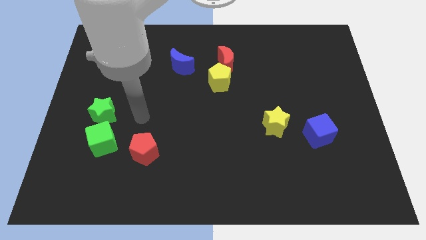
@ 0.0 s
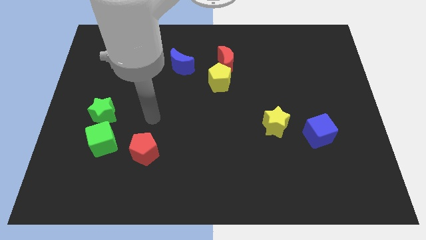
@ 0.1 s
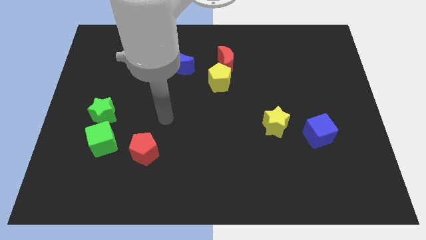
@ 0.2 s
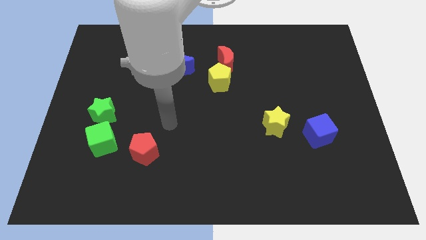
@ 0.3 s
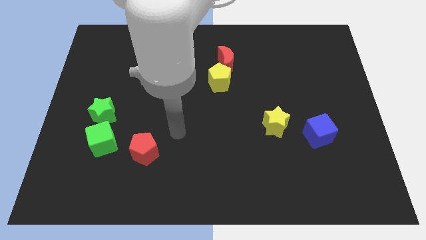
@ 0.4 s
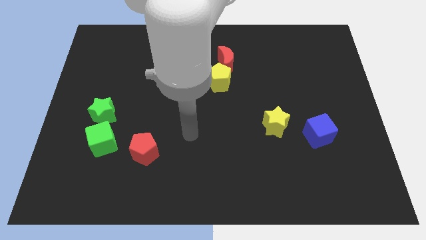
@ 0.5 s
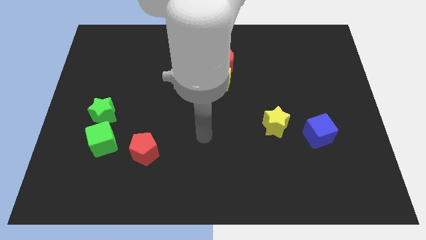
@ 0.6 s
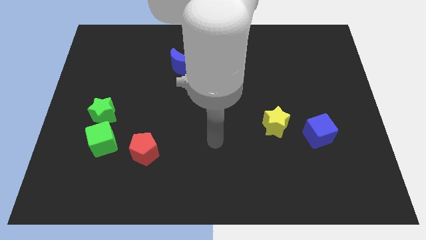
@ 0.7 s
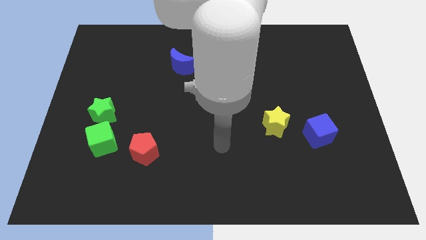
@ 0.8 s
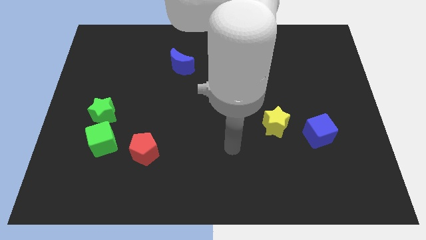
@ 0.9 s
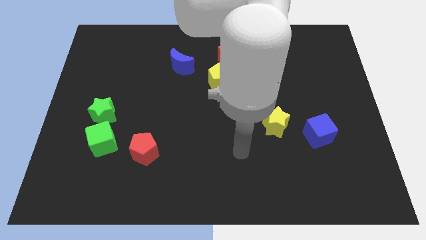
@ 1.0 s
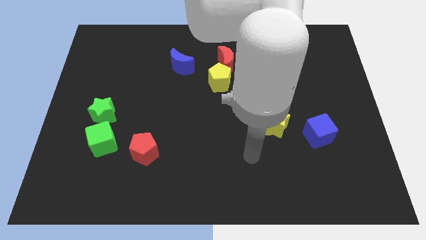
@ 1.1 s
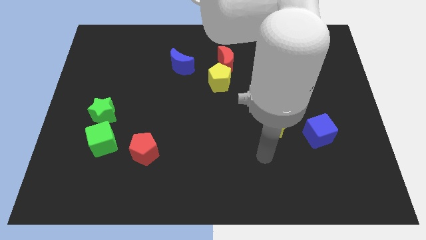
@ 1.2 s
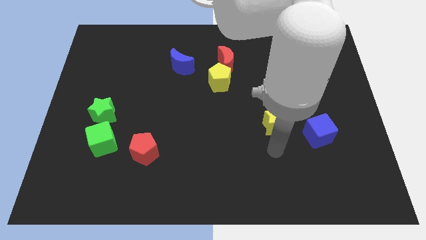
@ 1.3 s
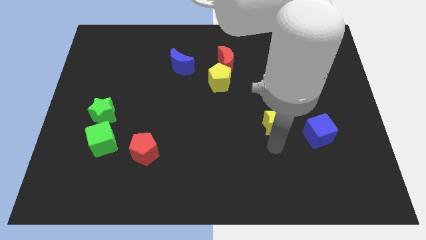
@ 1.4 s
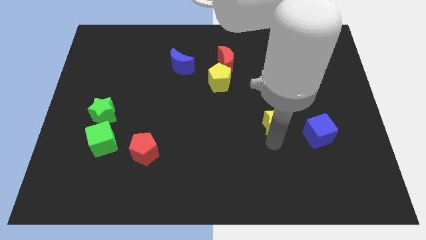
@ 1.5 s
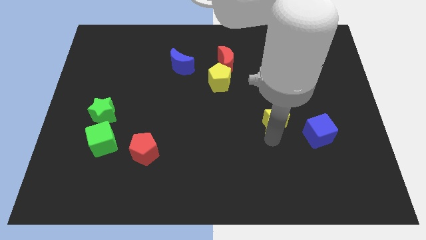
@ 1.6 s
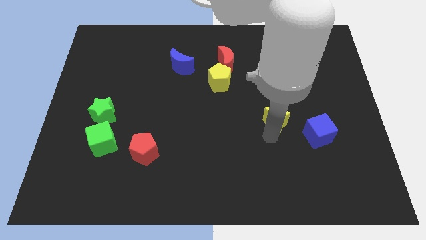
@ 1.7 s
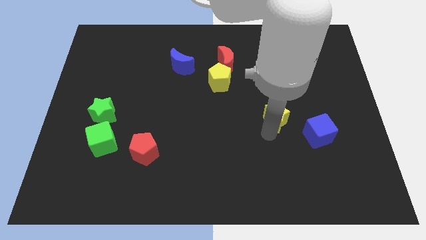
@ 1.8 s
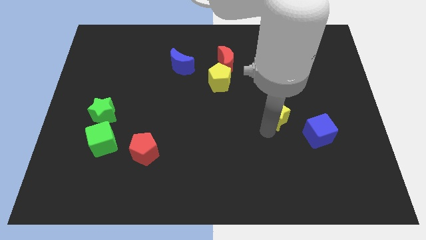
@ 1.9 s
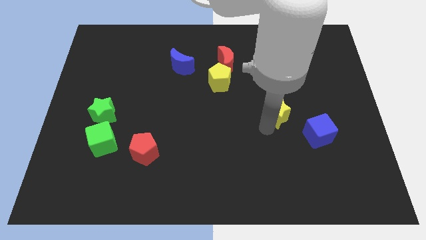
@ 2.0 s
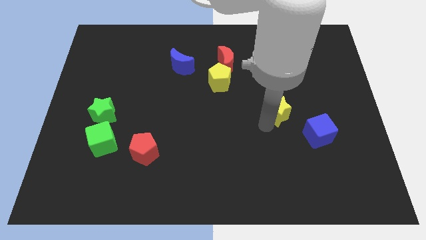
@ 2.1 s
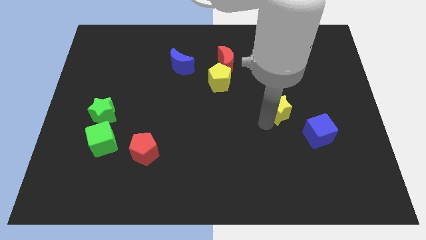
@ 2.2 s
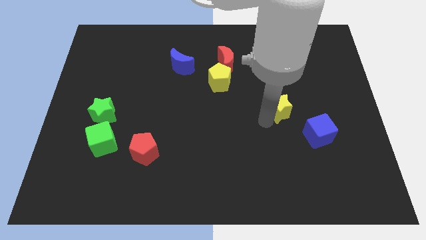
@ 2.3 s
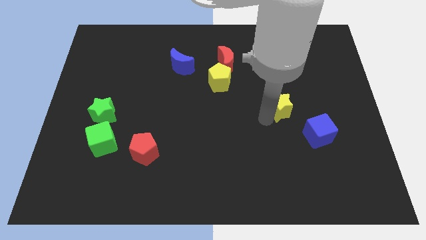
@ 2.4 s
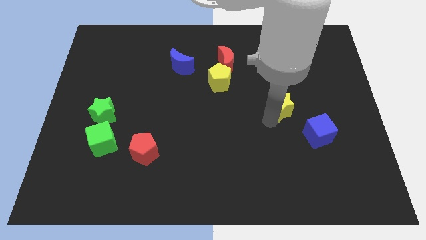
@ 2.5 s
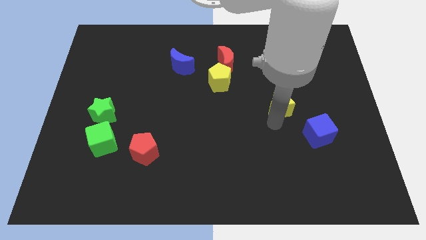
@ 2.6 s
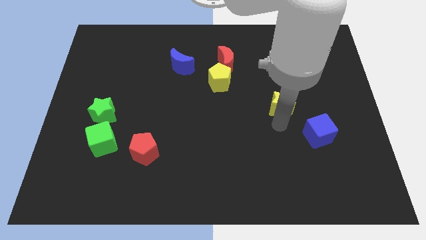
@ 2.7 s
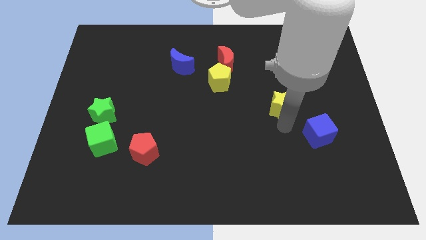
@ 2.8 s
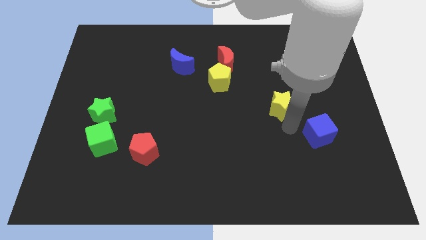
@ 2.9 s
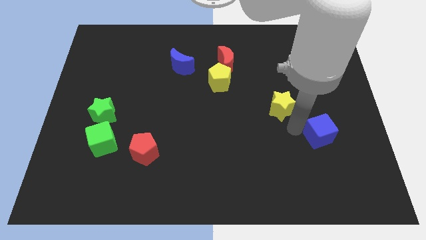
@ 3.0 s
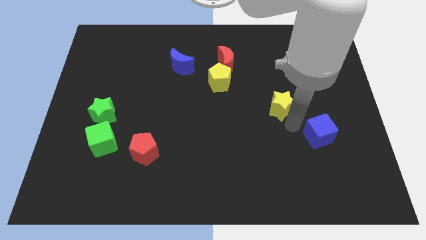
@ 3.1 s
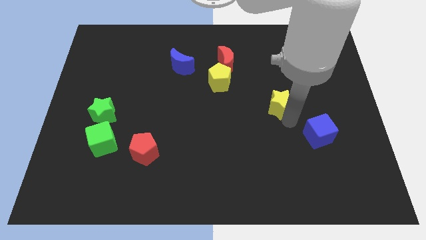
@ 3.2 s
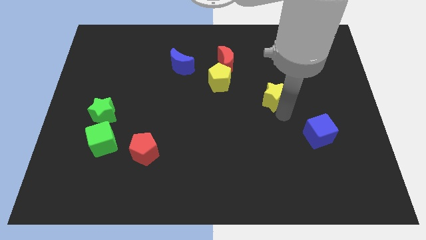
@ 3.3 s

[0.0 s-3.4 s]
slide the yellow star up a bit

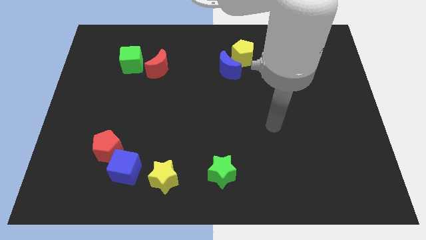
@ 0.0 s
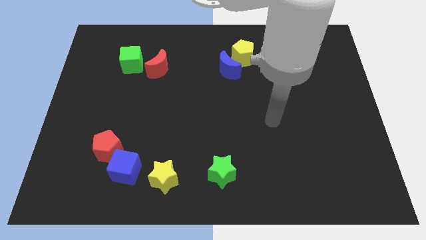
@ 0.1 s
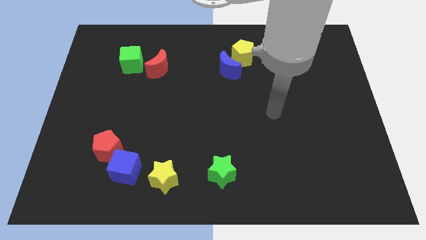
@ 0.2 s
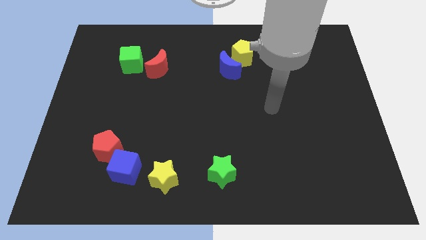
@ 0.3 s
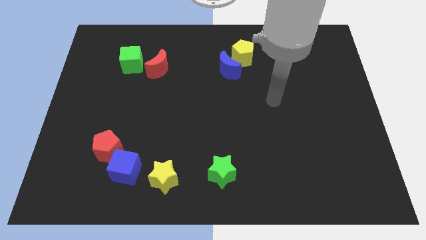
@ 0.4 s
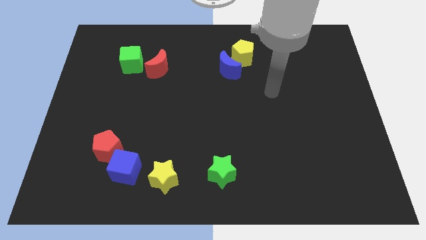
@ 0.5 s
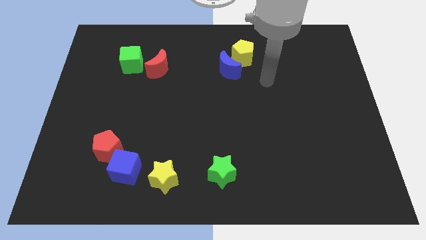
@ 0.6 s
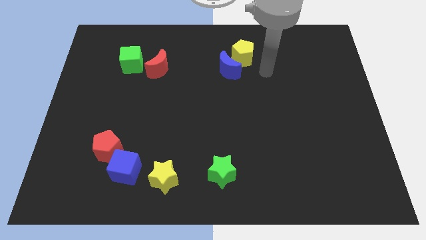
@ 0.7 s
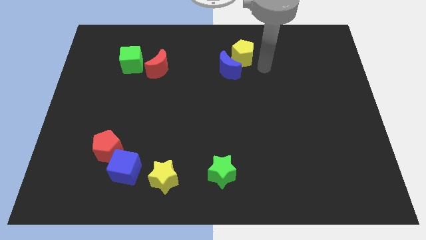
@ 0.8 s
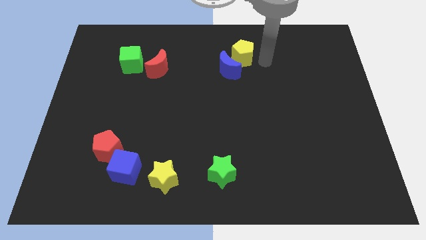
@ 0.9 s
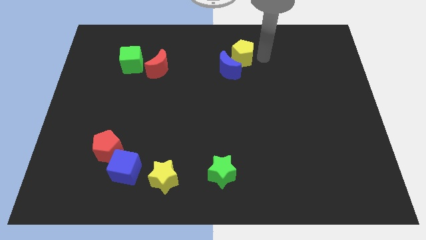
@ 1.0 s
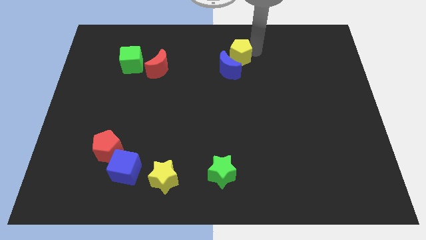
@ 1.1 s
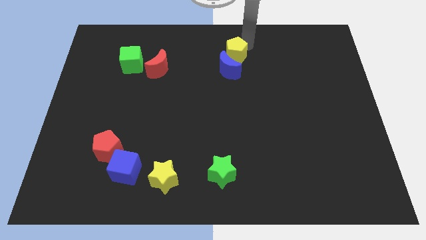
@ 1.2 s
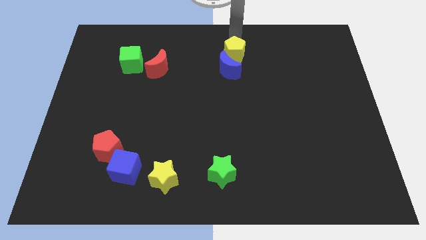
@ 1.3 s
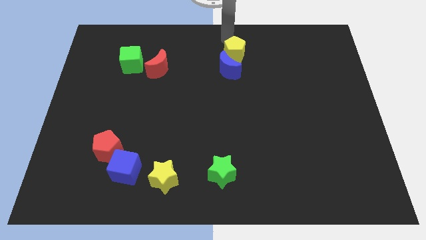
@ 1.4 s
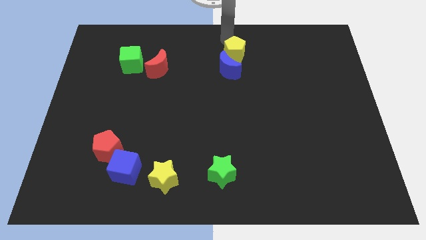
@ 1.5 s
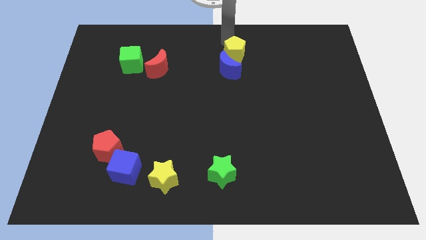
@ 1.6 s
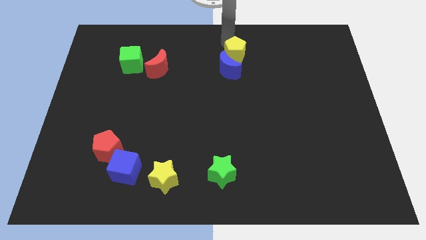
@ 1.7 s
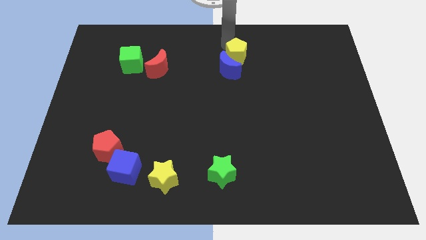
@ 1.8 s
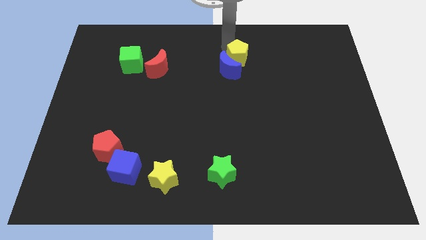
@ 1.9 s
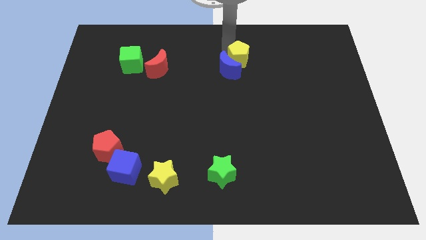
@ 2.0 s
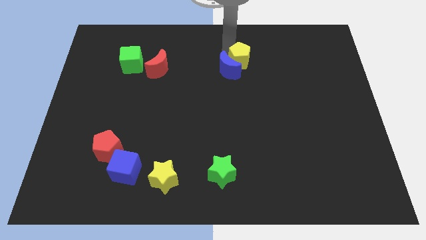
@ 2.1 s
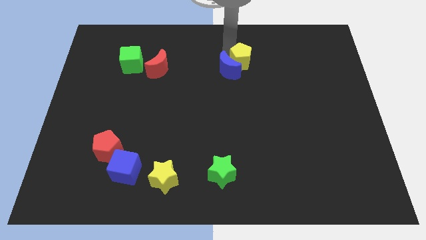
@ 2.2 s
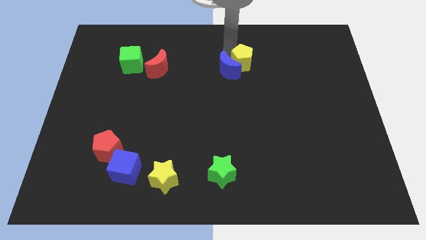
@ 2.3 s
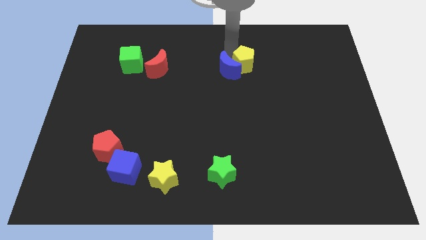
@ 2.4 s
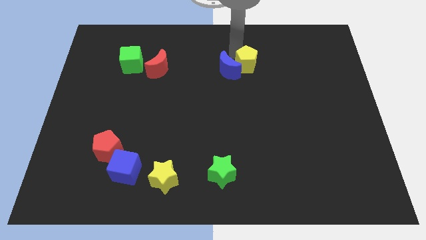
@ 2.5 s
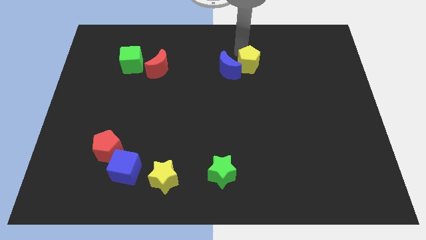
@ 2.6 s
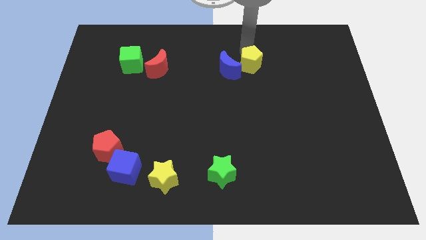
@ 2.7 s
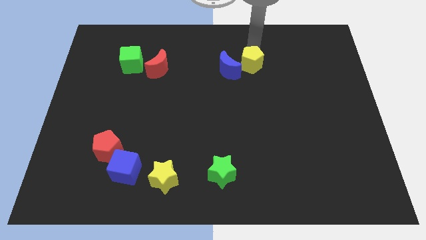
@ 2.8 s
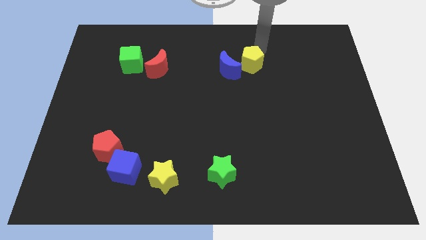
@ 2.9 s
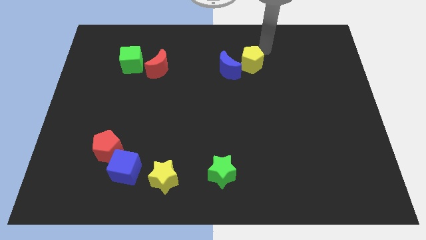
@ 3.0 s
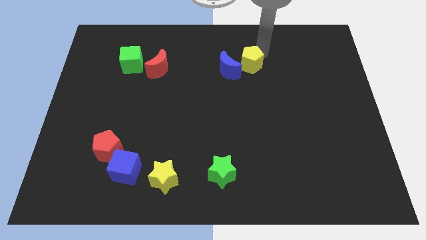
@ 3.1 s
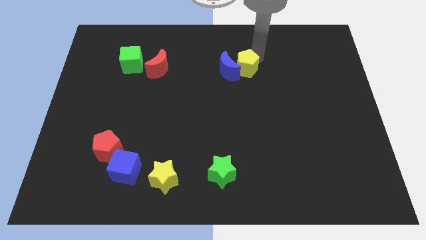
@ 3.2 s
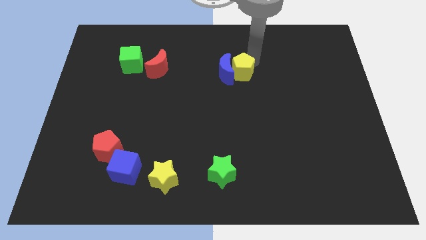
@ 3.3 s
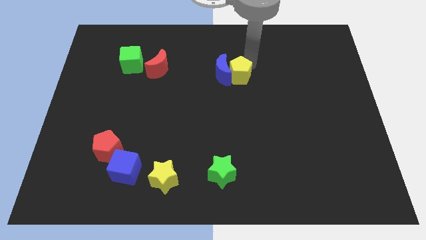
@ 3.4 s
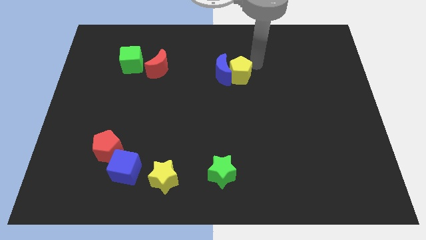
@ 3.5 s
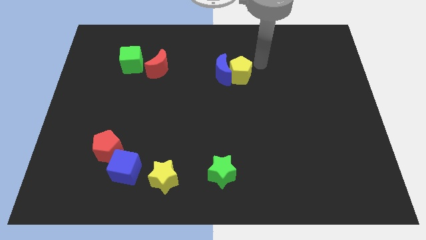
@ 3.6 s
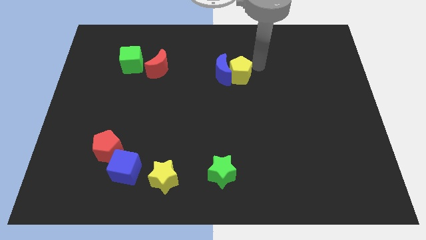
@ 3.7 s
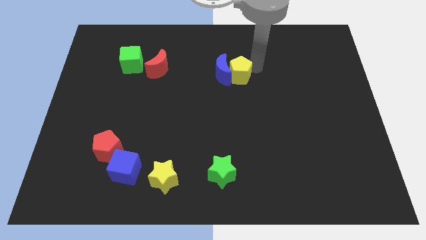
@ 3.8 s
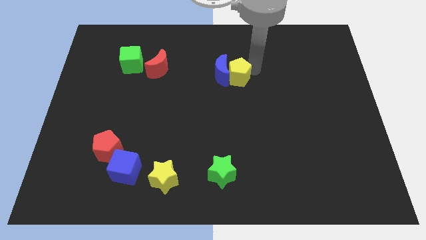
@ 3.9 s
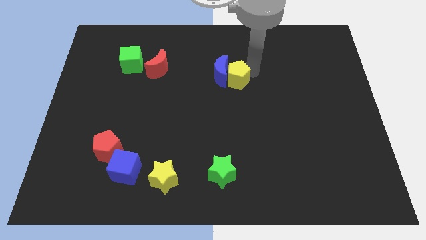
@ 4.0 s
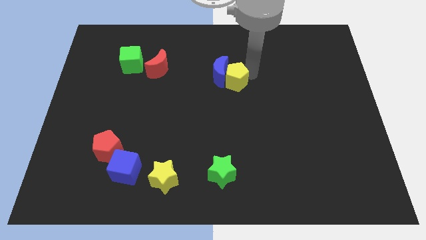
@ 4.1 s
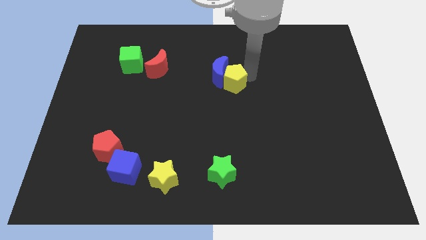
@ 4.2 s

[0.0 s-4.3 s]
move the yellow pentagon diagonally downwards and to the left a little

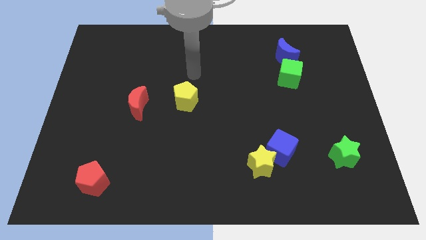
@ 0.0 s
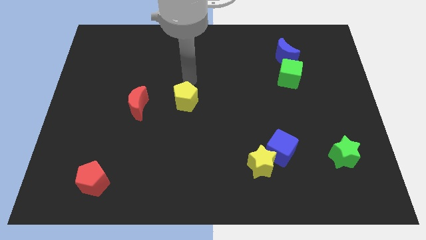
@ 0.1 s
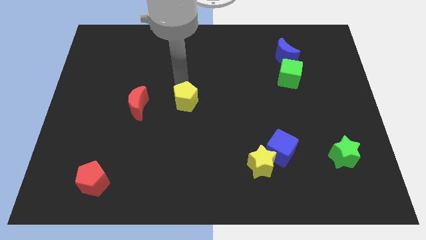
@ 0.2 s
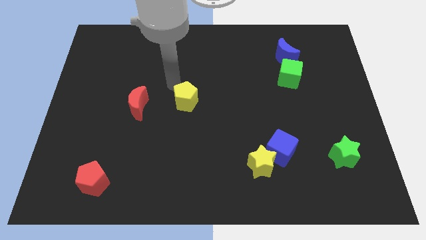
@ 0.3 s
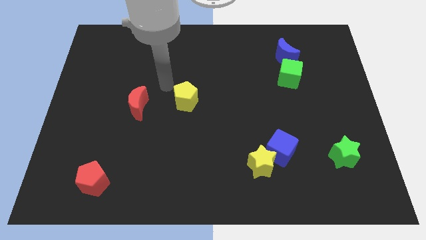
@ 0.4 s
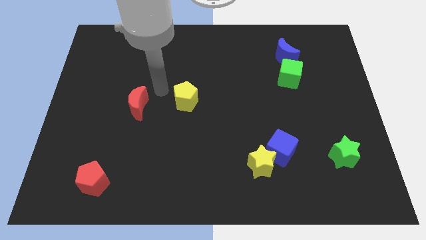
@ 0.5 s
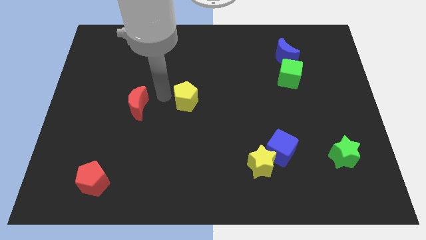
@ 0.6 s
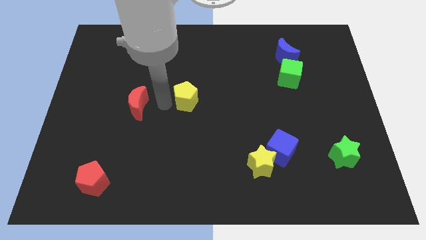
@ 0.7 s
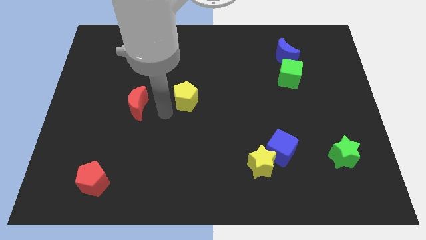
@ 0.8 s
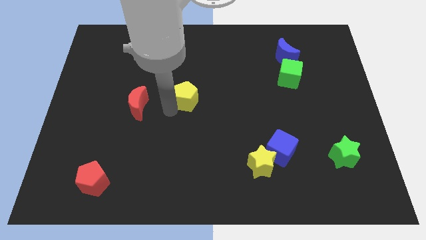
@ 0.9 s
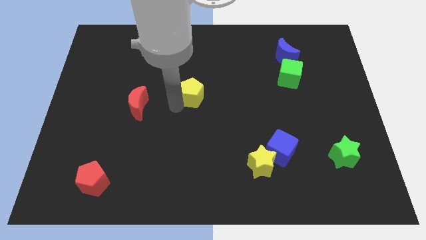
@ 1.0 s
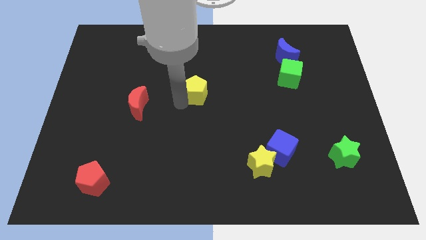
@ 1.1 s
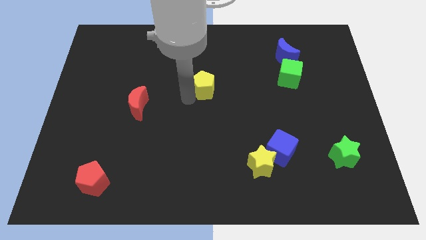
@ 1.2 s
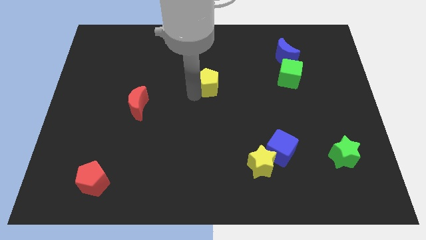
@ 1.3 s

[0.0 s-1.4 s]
slightly push the yellow pentagon up and right
